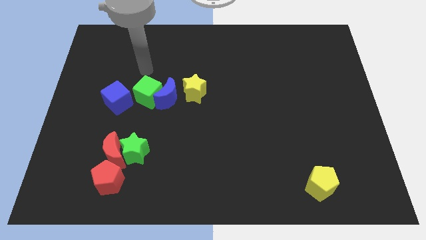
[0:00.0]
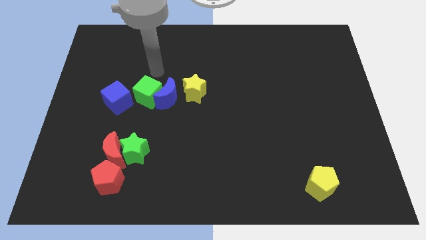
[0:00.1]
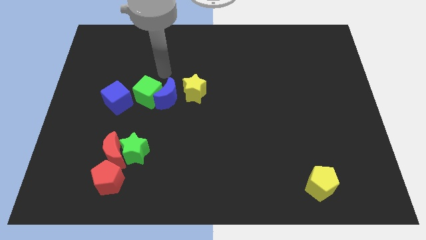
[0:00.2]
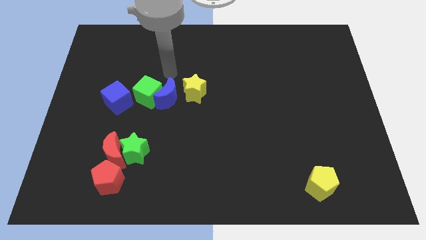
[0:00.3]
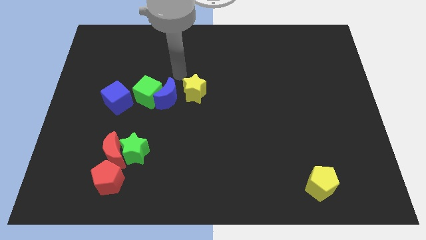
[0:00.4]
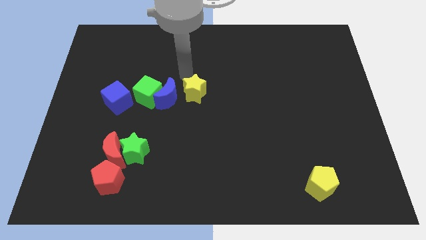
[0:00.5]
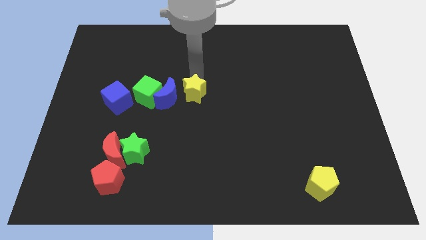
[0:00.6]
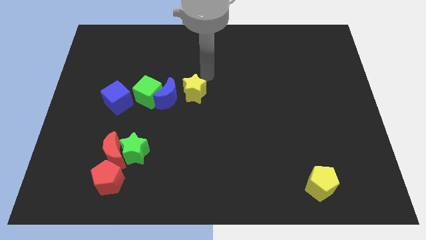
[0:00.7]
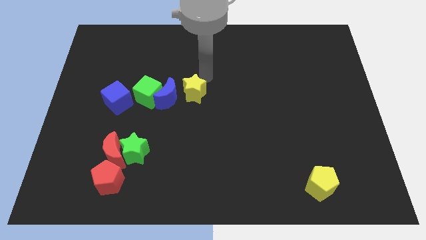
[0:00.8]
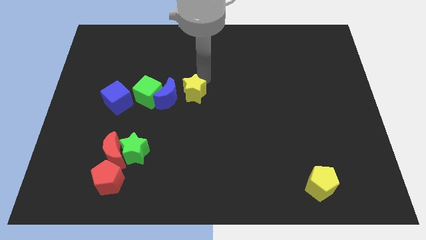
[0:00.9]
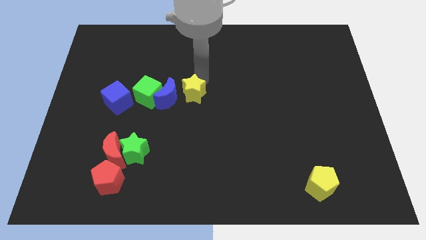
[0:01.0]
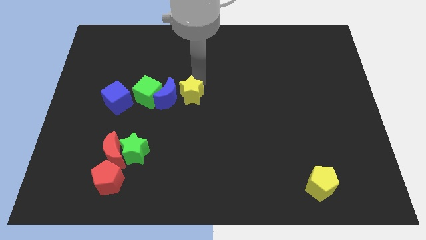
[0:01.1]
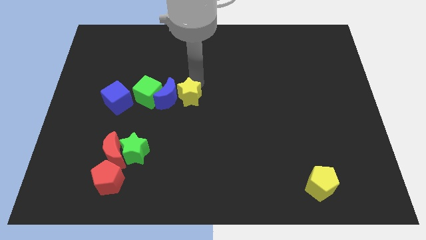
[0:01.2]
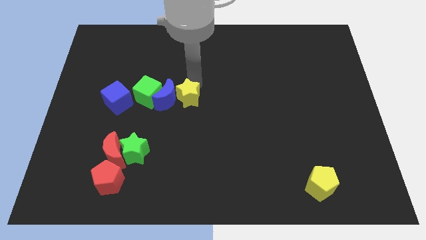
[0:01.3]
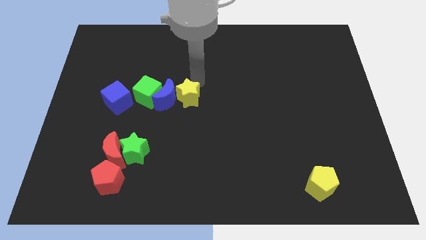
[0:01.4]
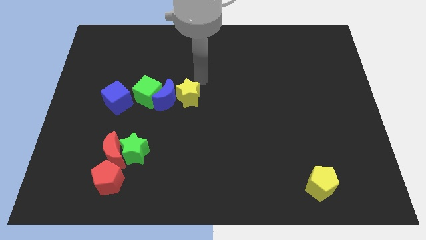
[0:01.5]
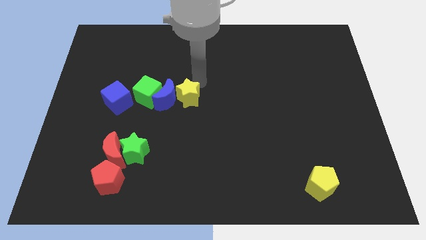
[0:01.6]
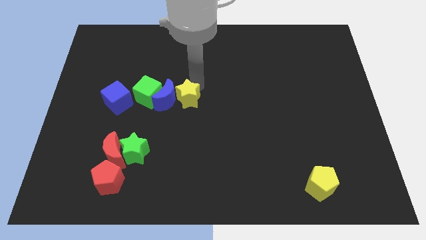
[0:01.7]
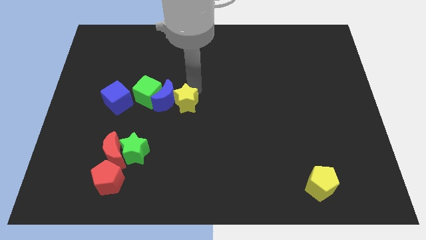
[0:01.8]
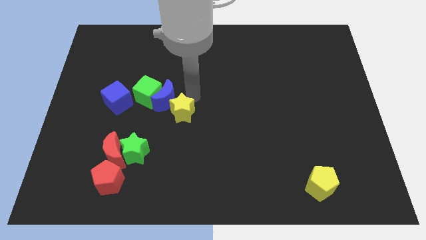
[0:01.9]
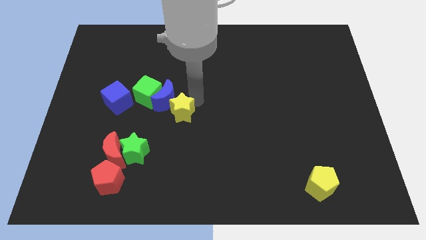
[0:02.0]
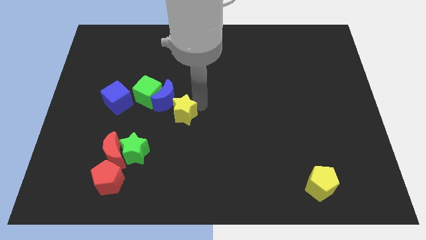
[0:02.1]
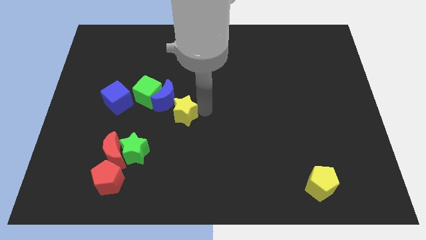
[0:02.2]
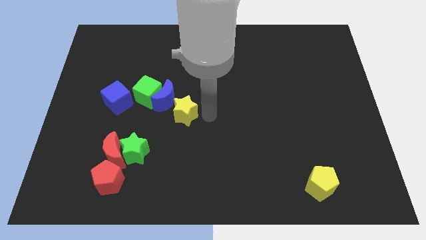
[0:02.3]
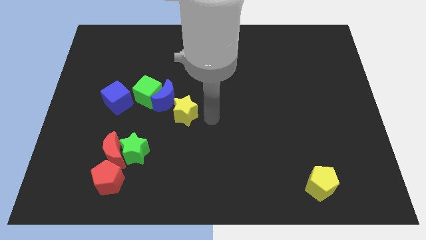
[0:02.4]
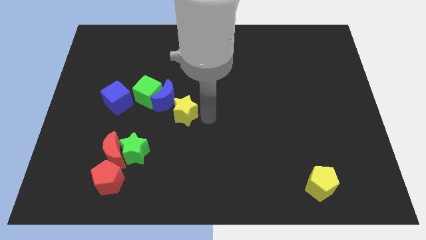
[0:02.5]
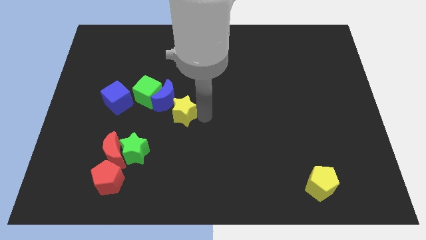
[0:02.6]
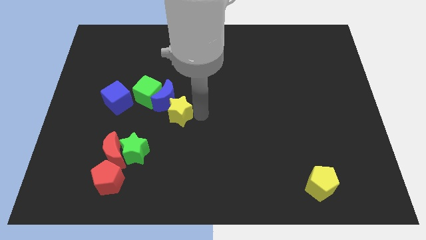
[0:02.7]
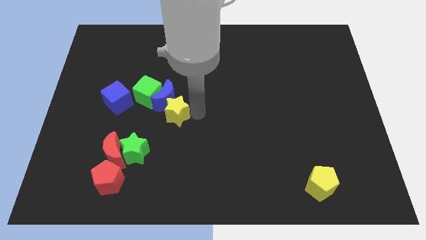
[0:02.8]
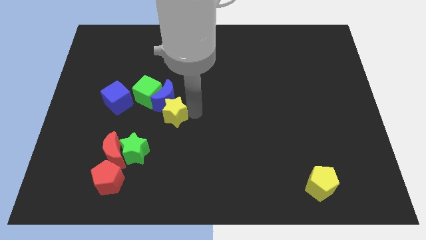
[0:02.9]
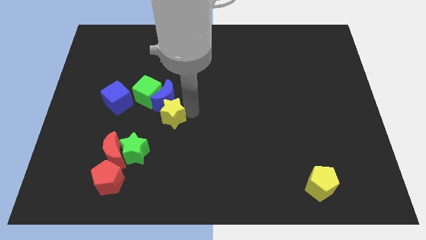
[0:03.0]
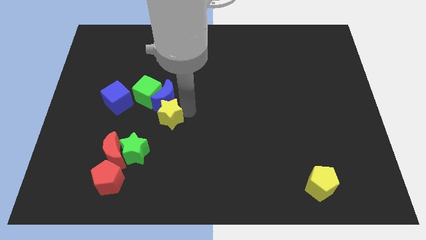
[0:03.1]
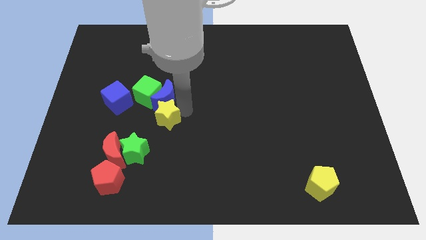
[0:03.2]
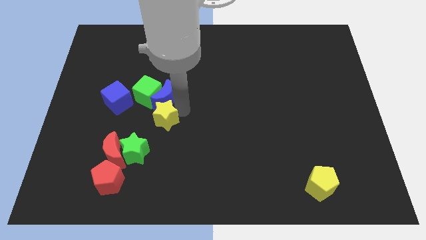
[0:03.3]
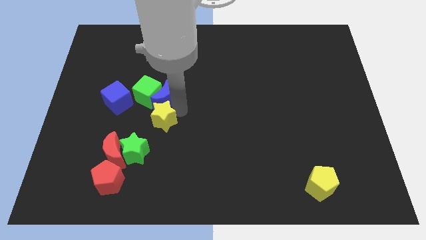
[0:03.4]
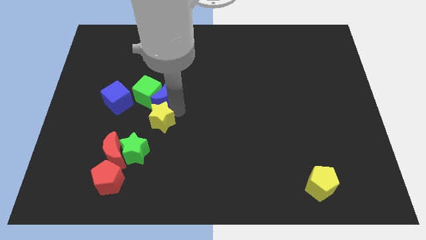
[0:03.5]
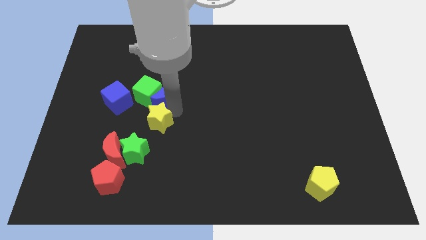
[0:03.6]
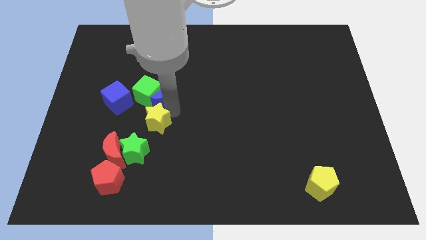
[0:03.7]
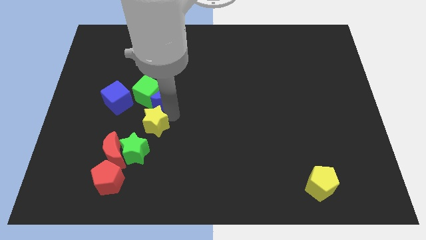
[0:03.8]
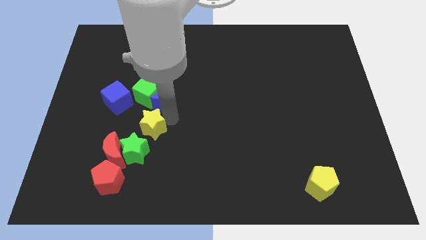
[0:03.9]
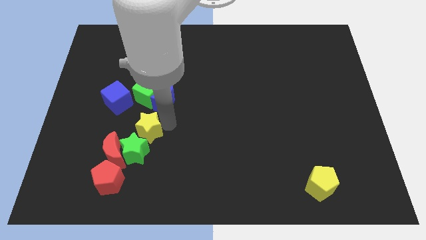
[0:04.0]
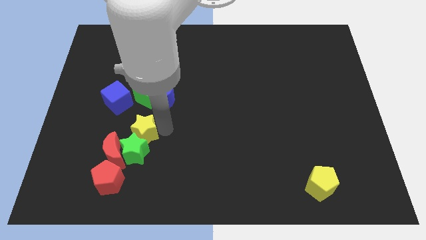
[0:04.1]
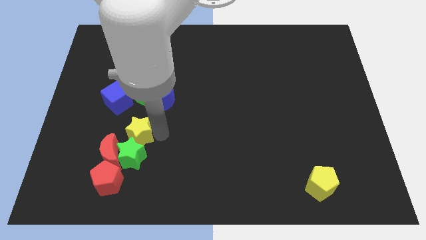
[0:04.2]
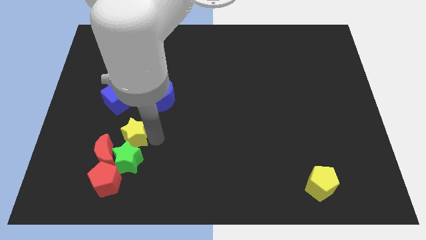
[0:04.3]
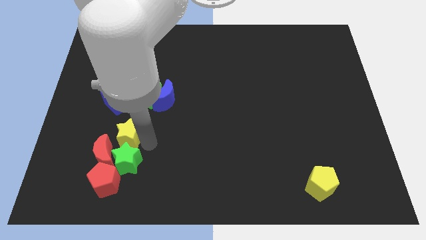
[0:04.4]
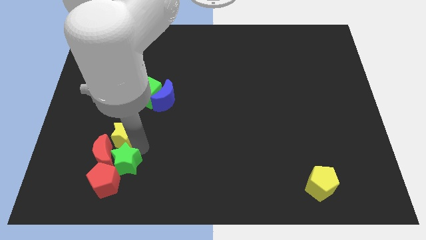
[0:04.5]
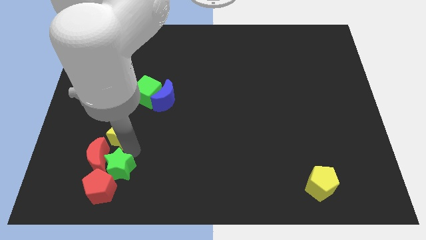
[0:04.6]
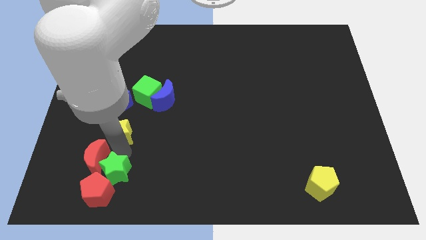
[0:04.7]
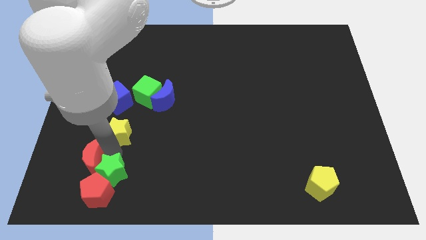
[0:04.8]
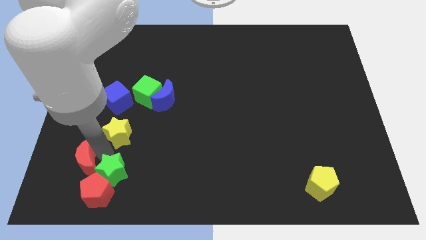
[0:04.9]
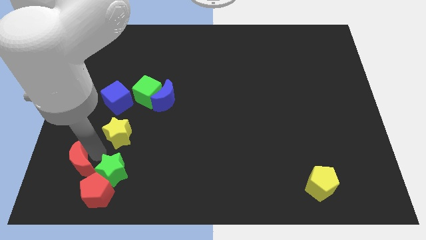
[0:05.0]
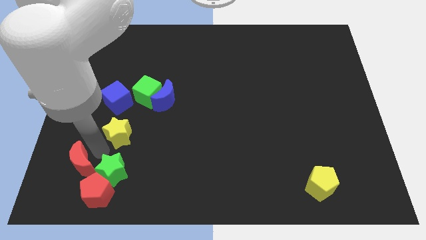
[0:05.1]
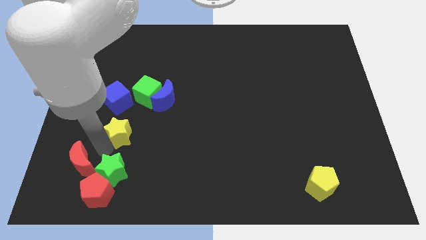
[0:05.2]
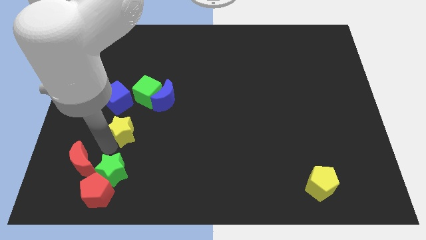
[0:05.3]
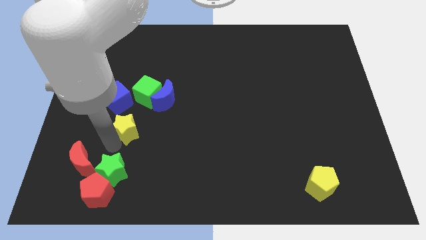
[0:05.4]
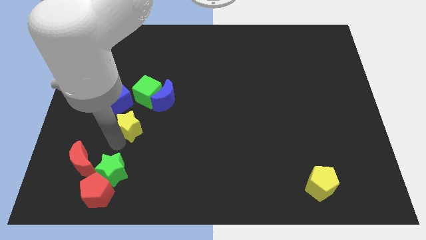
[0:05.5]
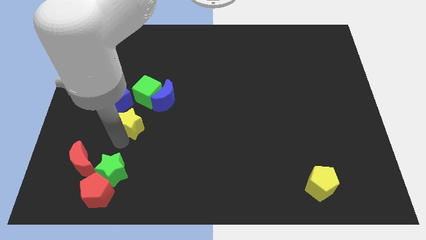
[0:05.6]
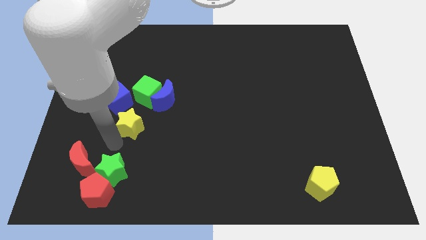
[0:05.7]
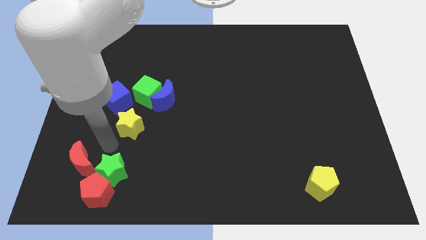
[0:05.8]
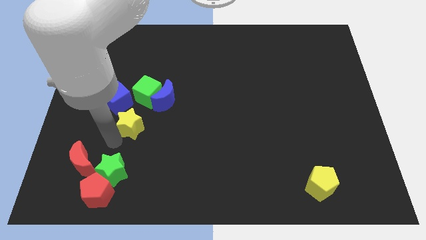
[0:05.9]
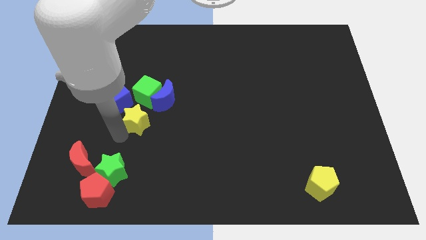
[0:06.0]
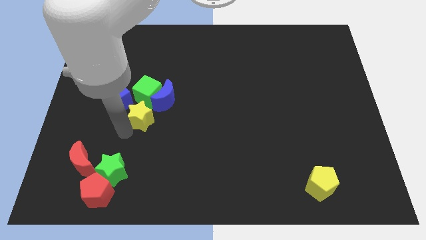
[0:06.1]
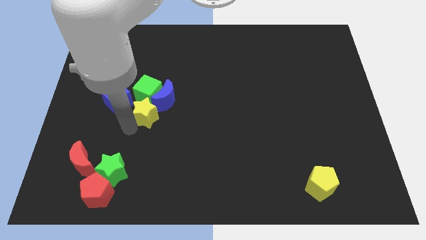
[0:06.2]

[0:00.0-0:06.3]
slide the yellow star to the green cube

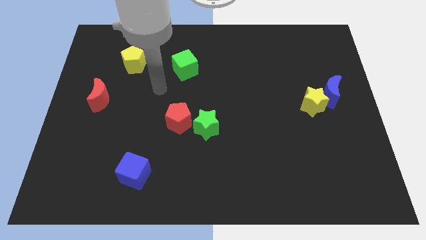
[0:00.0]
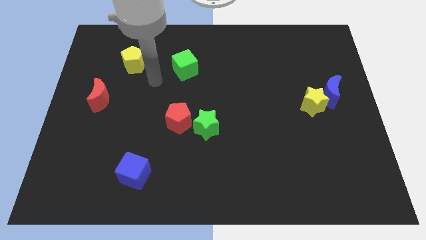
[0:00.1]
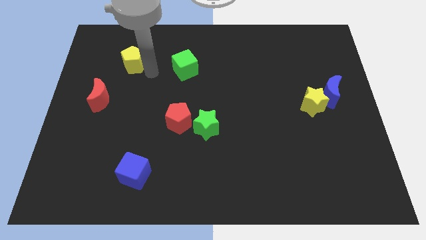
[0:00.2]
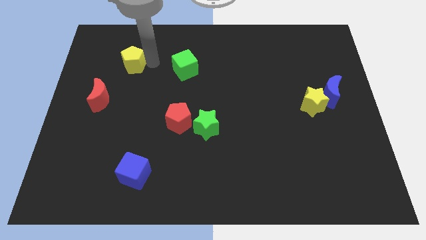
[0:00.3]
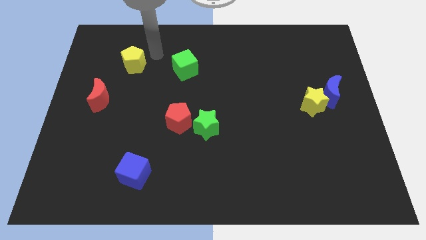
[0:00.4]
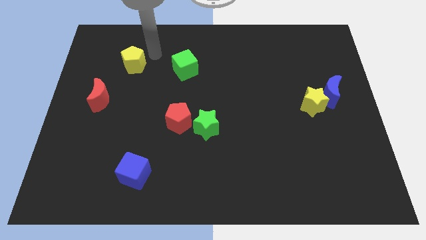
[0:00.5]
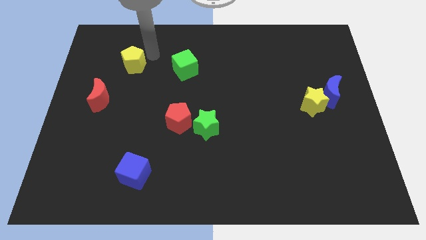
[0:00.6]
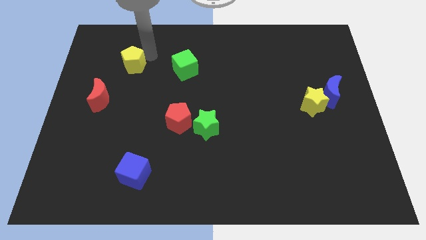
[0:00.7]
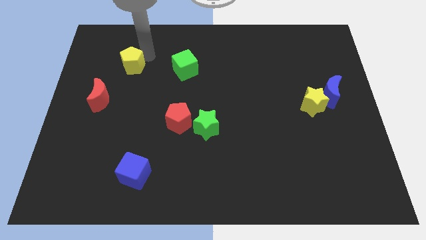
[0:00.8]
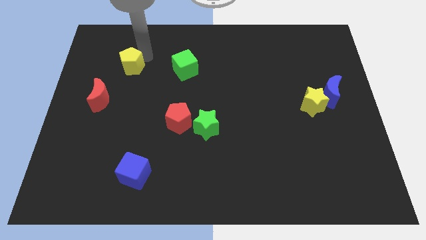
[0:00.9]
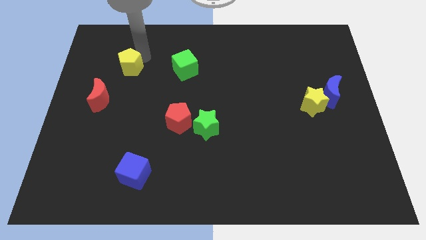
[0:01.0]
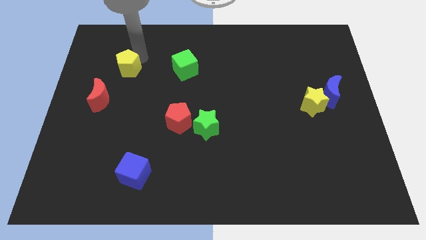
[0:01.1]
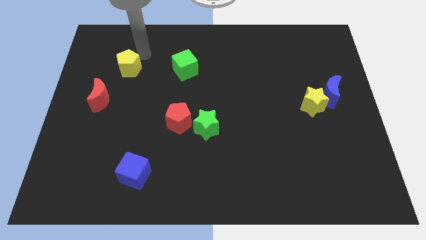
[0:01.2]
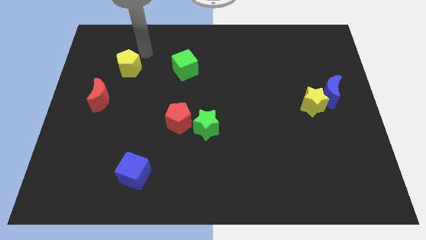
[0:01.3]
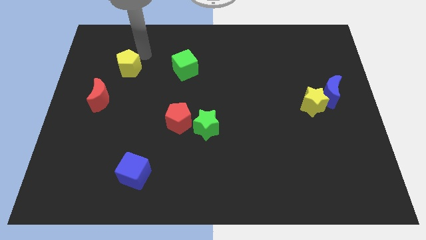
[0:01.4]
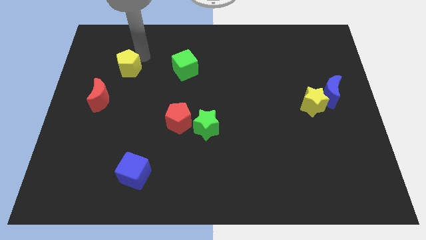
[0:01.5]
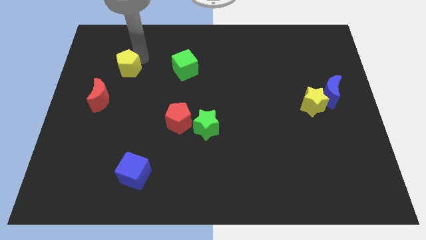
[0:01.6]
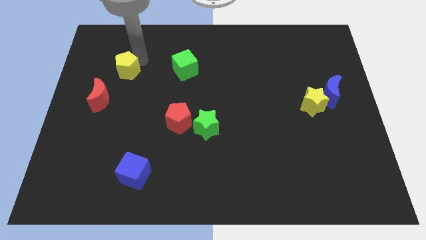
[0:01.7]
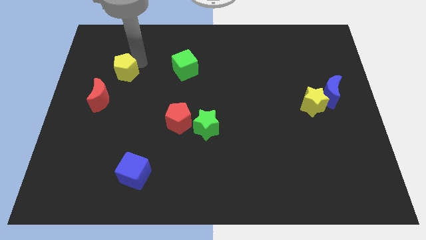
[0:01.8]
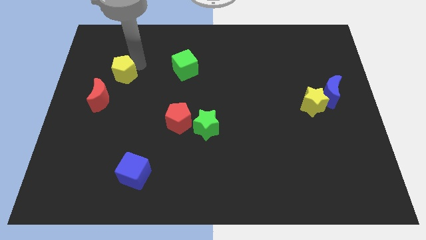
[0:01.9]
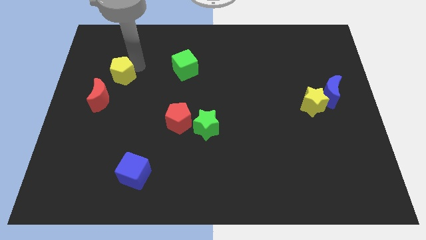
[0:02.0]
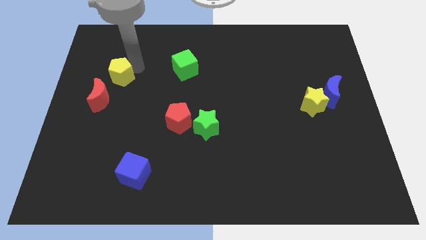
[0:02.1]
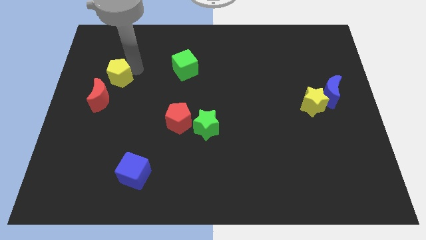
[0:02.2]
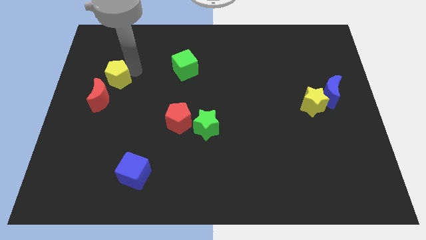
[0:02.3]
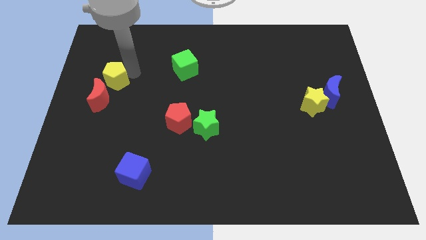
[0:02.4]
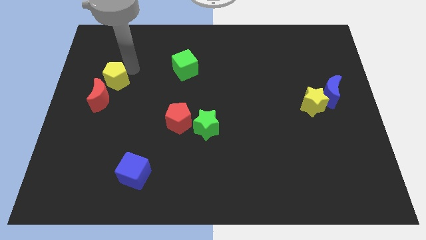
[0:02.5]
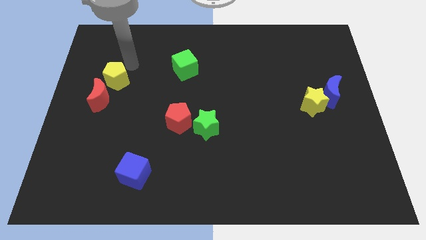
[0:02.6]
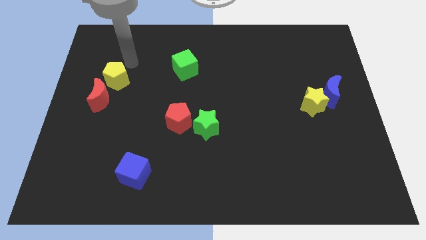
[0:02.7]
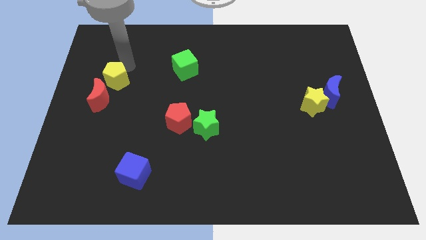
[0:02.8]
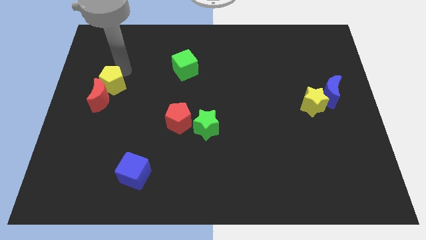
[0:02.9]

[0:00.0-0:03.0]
move the yellow pentagon next to the red moon
